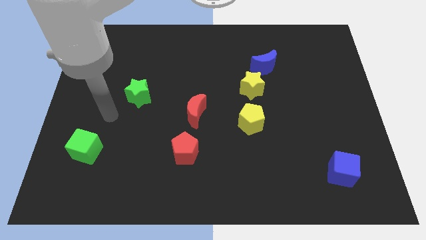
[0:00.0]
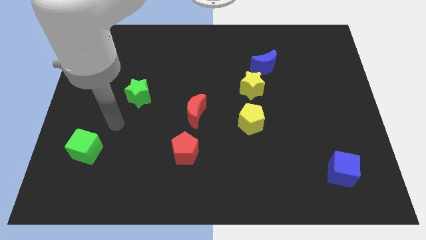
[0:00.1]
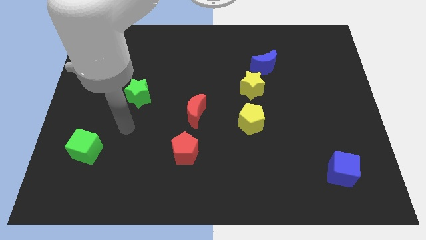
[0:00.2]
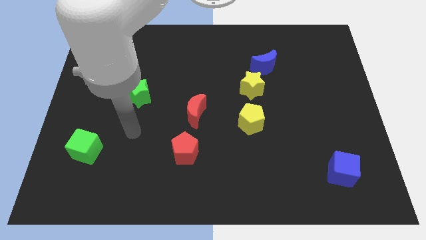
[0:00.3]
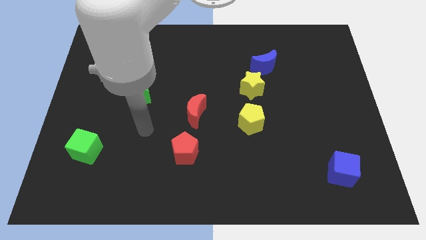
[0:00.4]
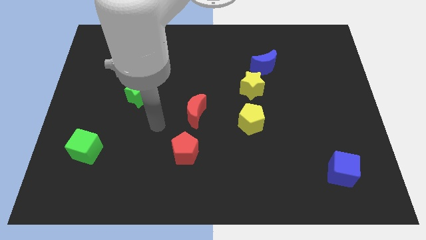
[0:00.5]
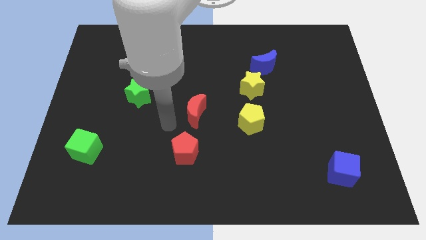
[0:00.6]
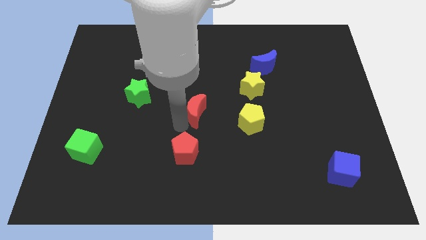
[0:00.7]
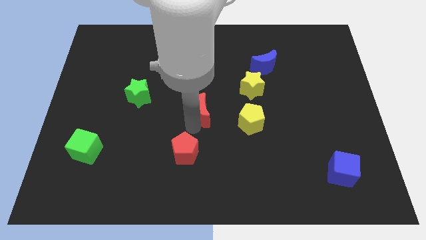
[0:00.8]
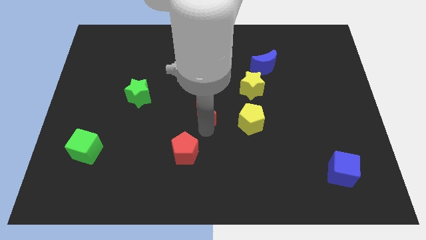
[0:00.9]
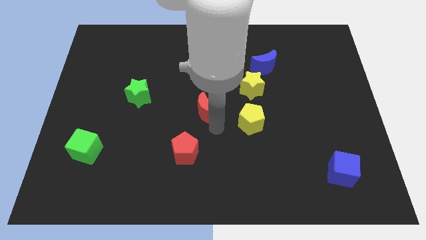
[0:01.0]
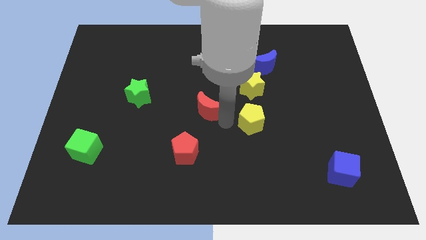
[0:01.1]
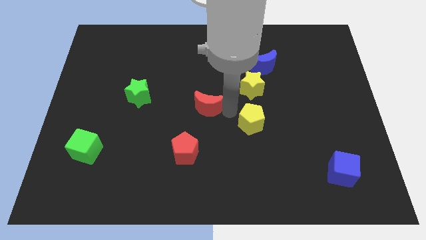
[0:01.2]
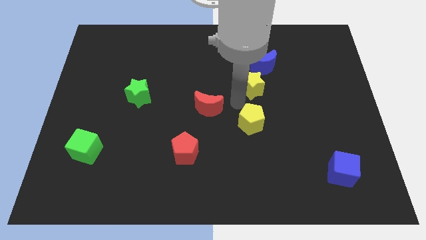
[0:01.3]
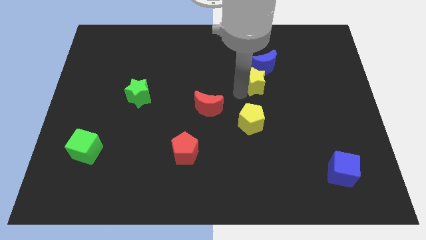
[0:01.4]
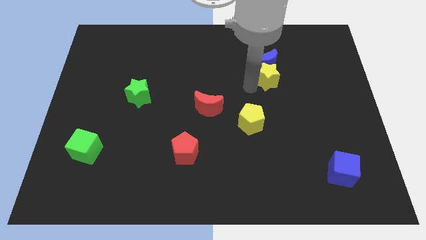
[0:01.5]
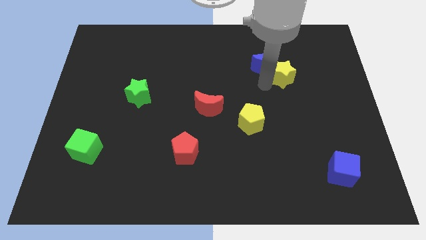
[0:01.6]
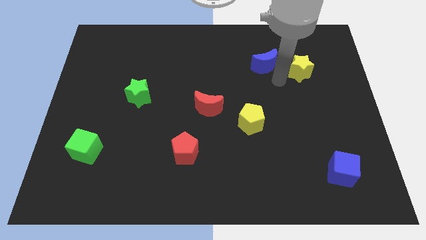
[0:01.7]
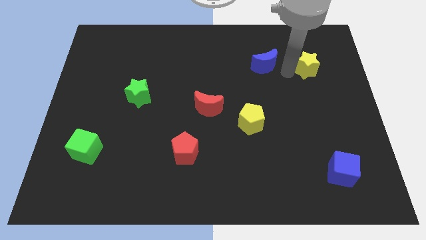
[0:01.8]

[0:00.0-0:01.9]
separate the blue moon from the yellow star

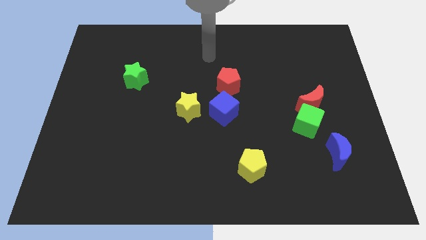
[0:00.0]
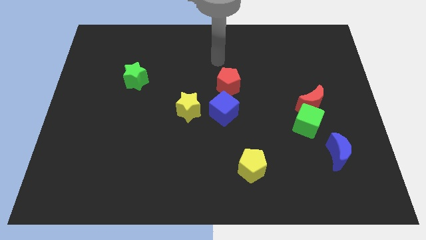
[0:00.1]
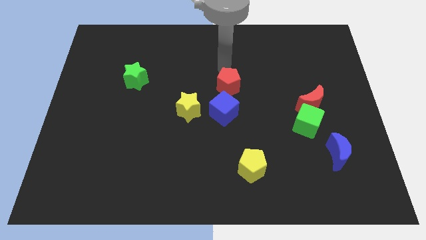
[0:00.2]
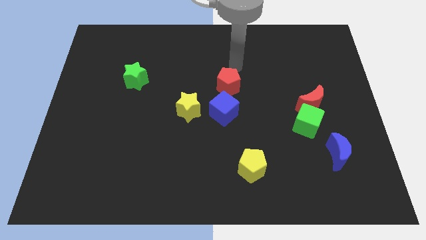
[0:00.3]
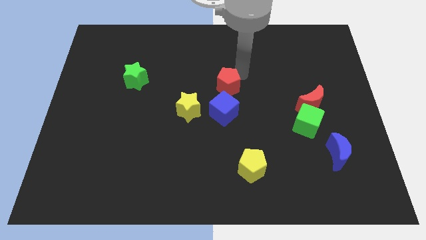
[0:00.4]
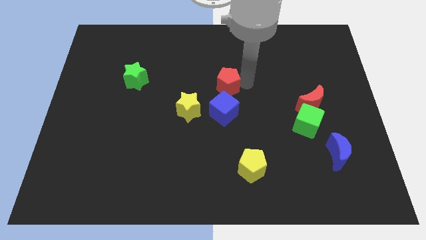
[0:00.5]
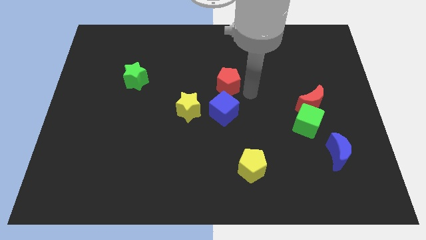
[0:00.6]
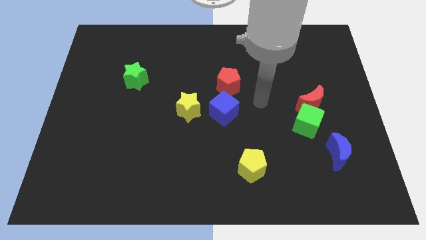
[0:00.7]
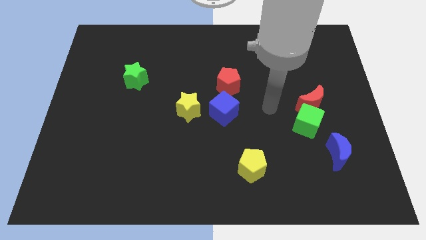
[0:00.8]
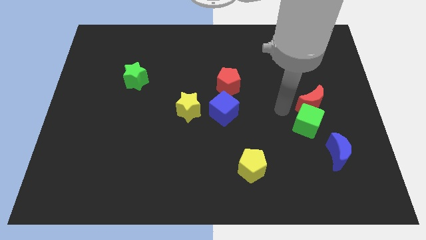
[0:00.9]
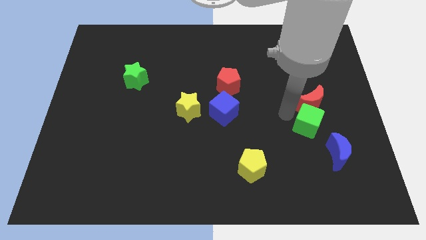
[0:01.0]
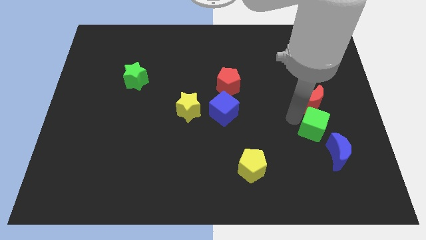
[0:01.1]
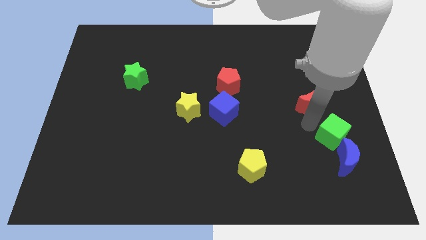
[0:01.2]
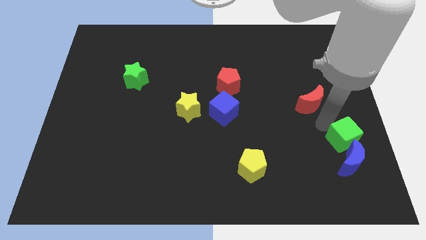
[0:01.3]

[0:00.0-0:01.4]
separate the red moon from the green cube

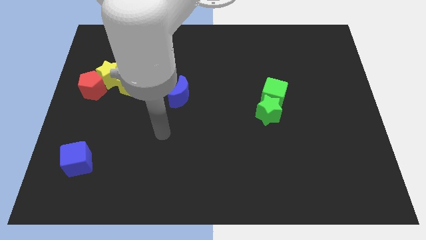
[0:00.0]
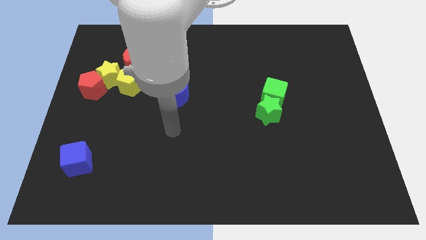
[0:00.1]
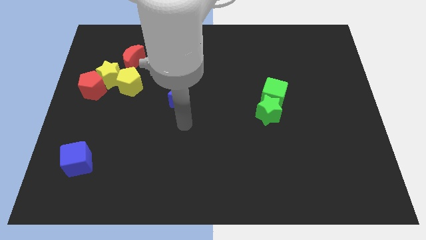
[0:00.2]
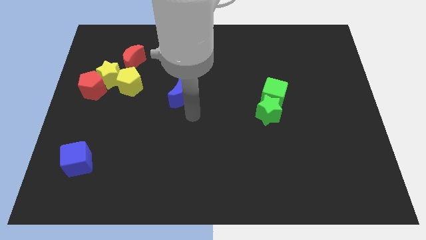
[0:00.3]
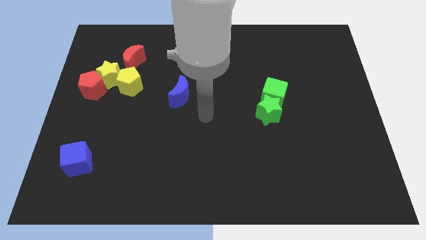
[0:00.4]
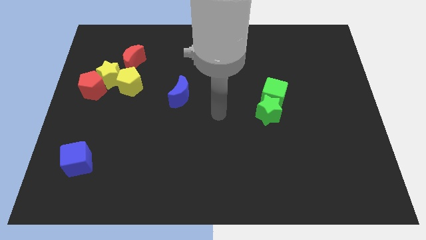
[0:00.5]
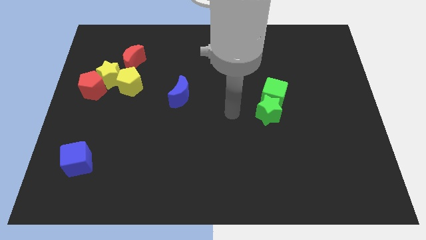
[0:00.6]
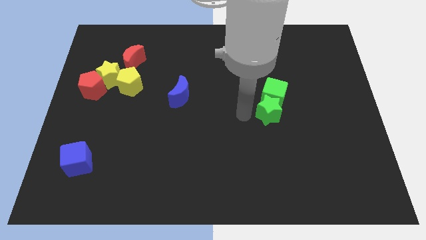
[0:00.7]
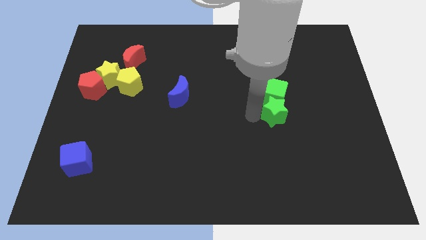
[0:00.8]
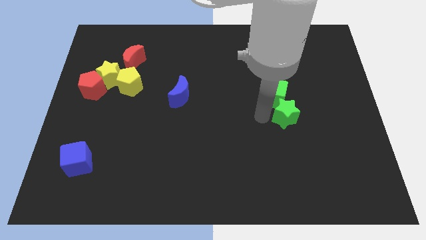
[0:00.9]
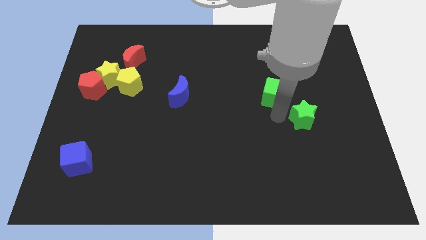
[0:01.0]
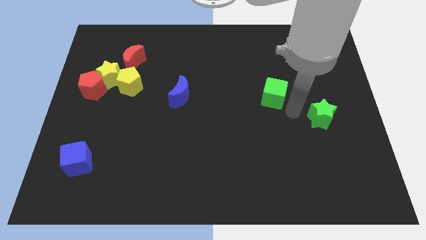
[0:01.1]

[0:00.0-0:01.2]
move the green cube away from the green star

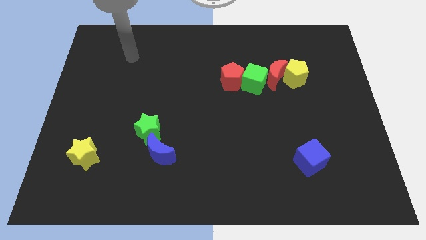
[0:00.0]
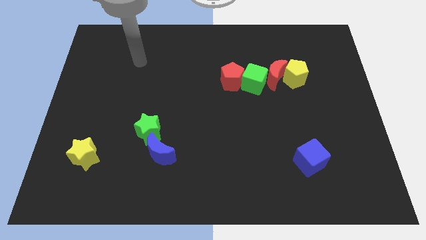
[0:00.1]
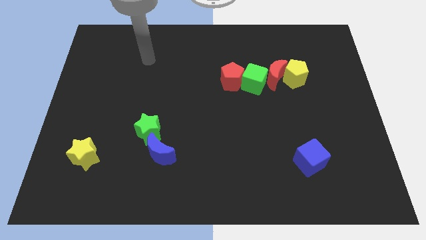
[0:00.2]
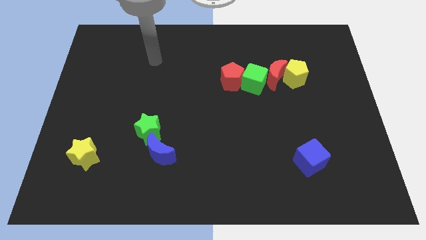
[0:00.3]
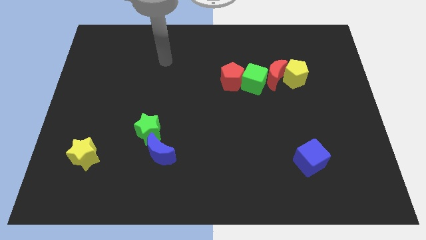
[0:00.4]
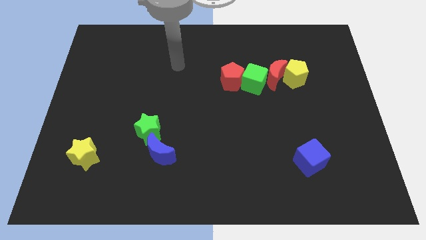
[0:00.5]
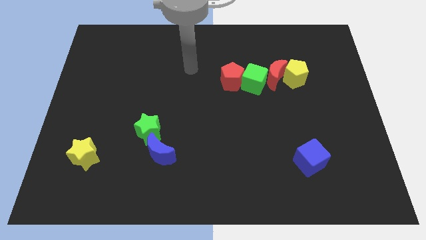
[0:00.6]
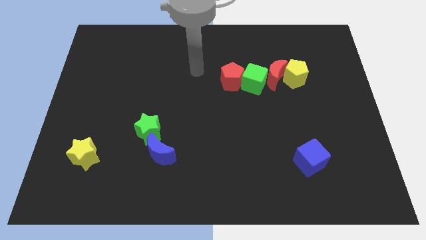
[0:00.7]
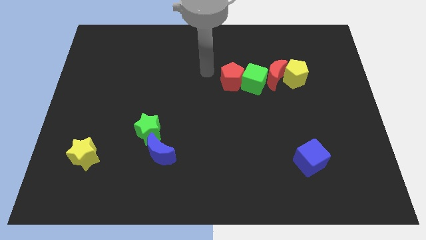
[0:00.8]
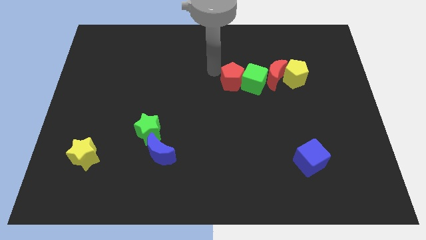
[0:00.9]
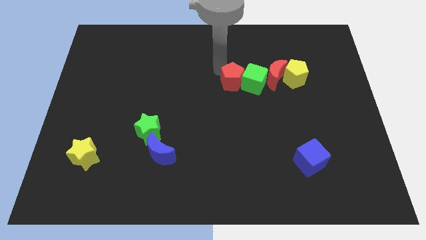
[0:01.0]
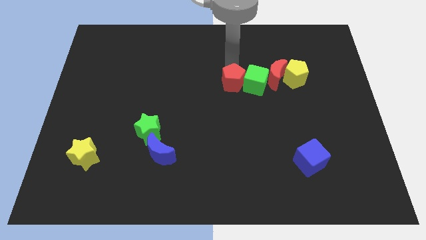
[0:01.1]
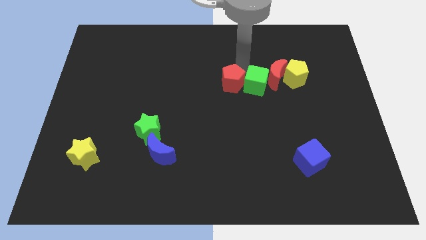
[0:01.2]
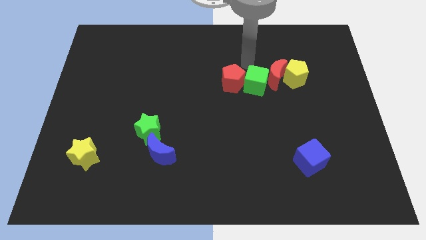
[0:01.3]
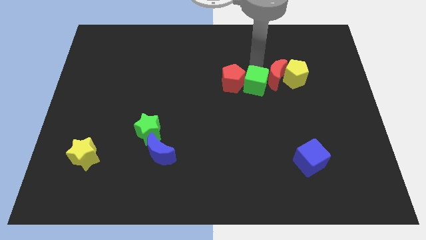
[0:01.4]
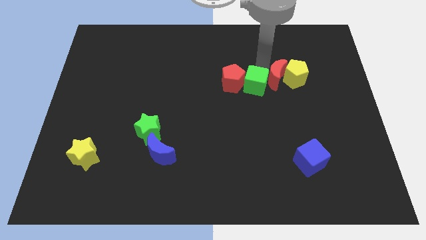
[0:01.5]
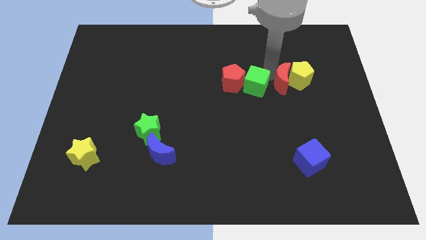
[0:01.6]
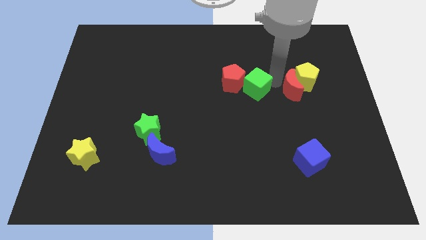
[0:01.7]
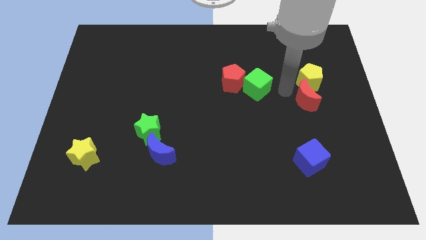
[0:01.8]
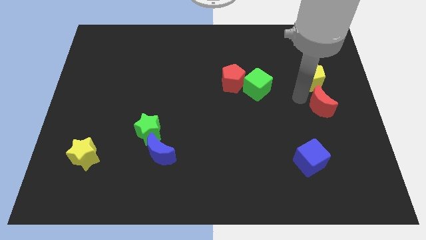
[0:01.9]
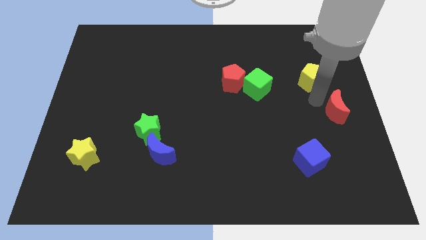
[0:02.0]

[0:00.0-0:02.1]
separate the yellow pentagon from the red moon

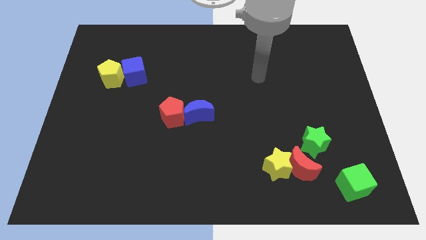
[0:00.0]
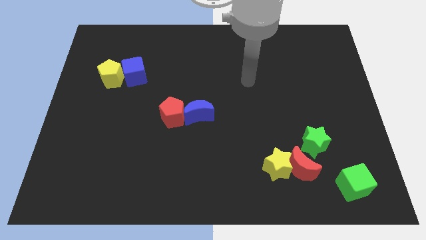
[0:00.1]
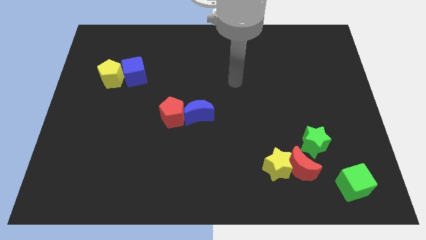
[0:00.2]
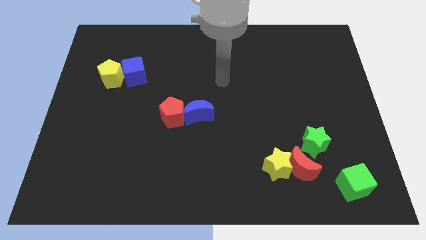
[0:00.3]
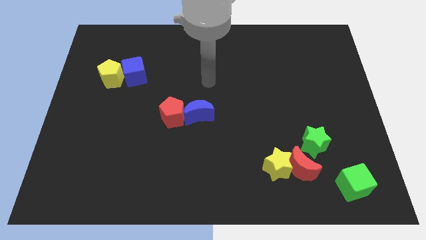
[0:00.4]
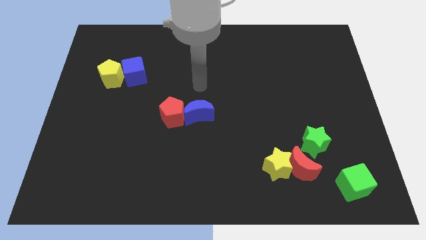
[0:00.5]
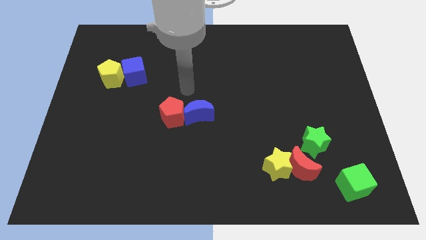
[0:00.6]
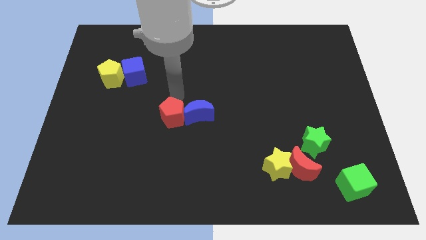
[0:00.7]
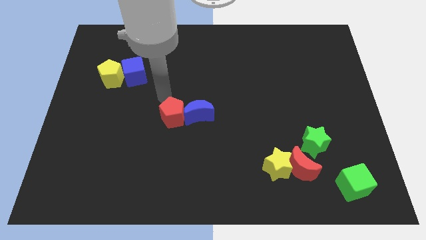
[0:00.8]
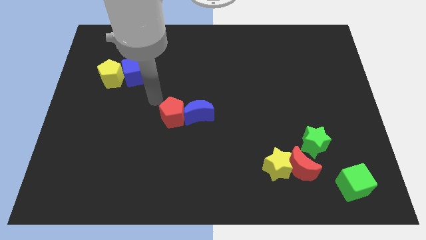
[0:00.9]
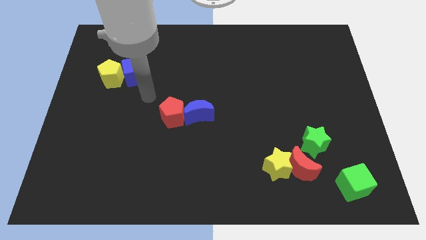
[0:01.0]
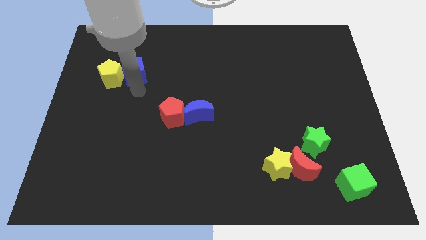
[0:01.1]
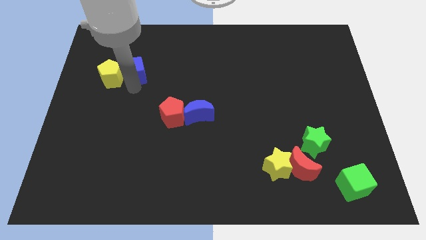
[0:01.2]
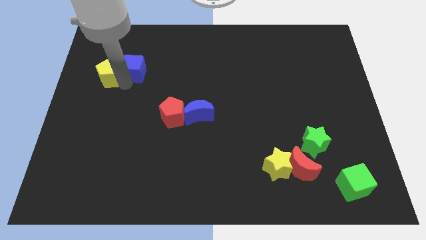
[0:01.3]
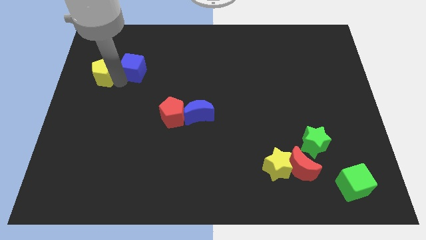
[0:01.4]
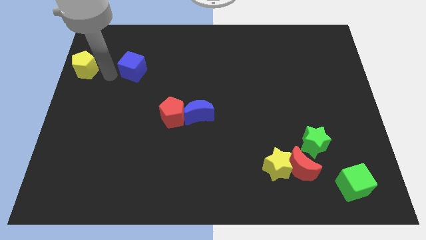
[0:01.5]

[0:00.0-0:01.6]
separate the blue cube from the yellow pentagon

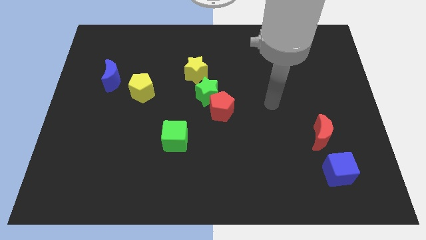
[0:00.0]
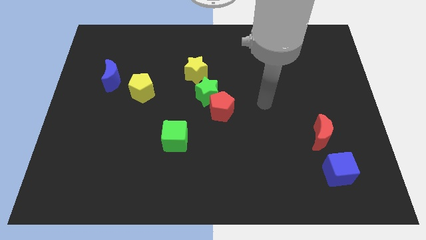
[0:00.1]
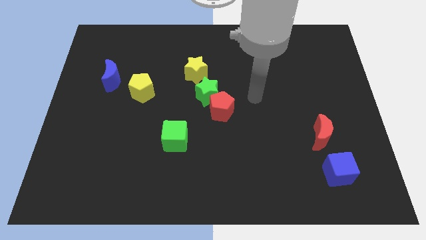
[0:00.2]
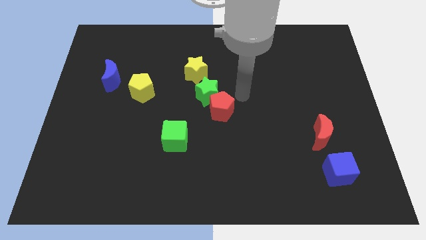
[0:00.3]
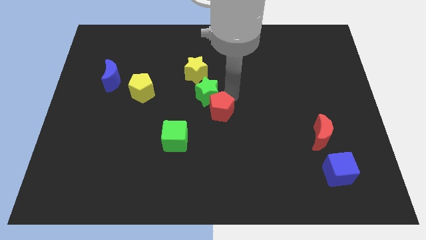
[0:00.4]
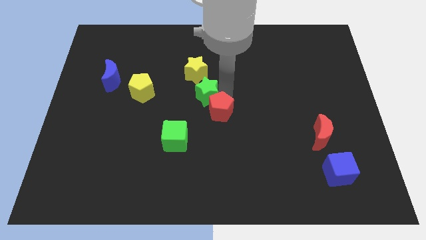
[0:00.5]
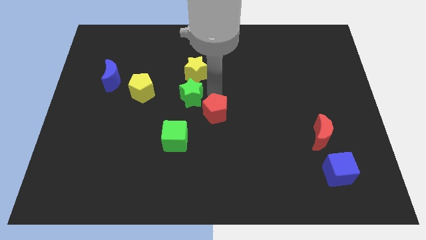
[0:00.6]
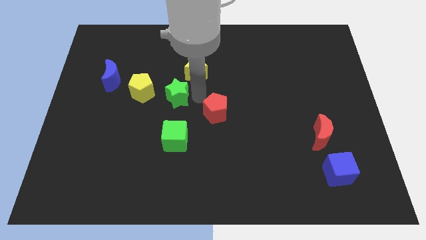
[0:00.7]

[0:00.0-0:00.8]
move the red pentagon away from the green star

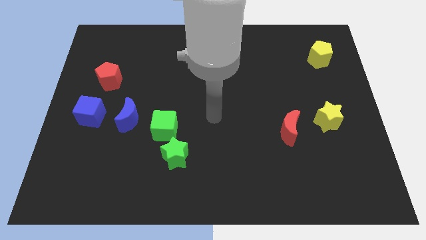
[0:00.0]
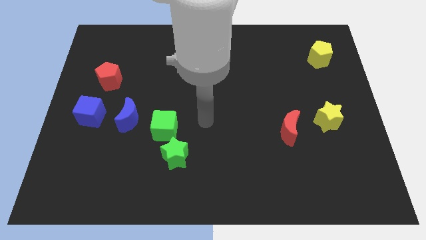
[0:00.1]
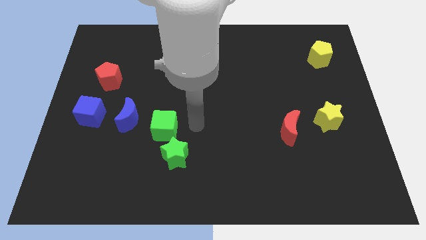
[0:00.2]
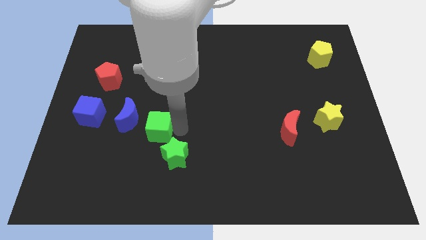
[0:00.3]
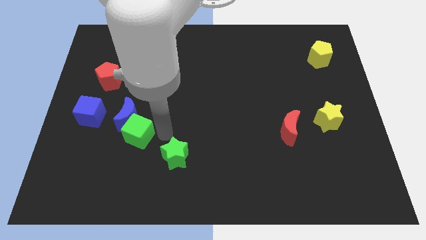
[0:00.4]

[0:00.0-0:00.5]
pull the green star apart from the green cube
